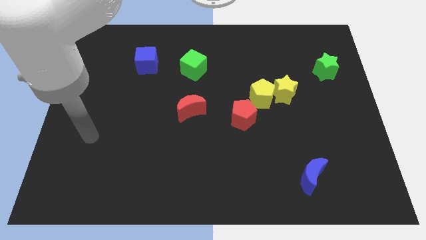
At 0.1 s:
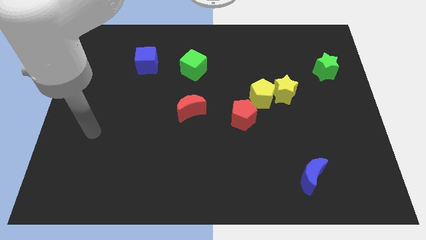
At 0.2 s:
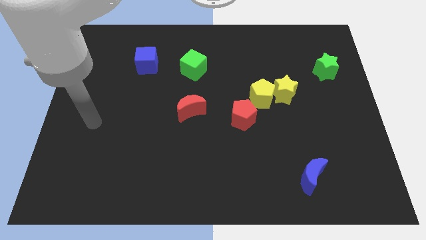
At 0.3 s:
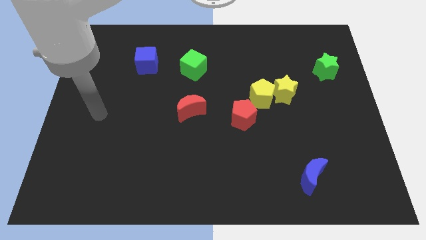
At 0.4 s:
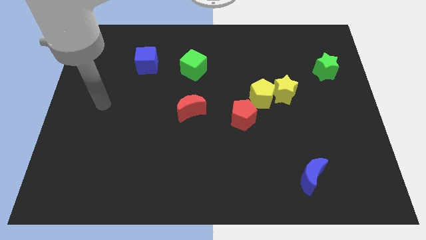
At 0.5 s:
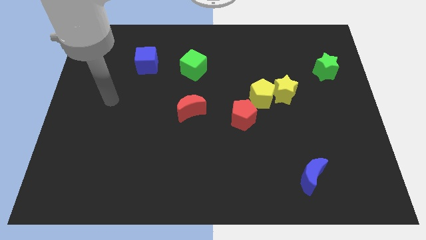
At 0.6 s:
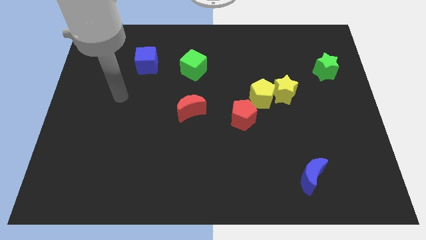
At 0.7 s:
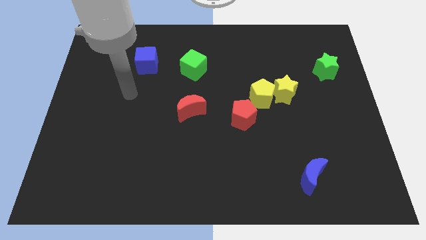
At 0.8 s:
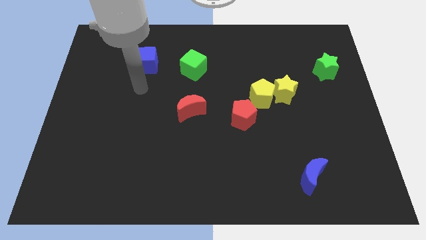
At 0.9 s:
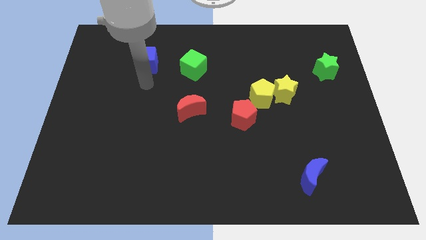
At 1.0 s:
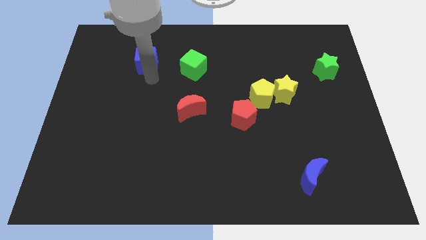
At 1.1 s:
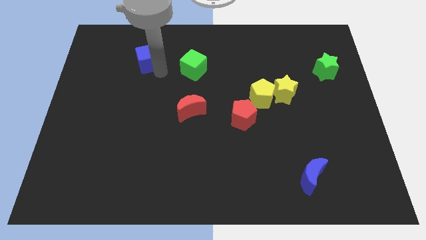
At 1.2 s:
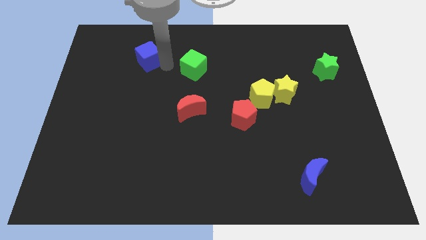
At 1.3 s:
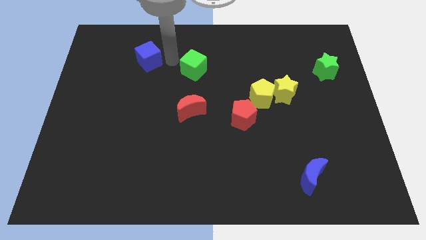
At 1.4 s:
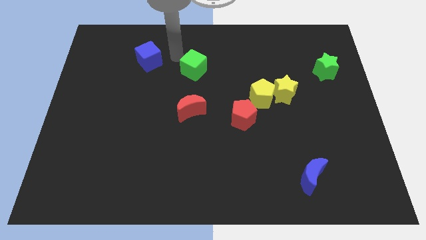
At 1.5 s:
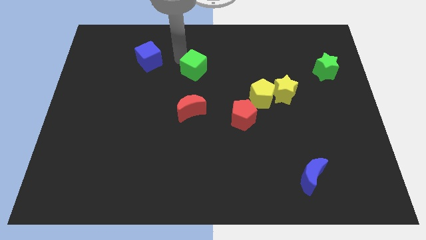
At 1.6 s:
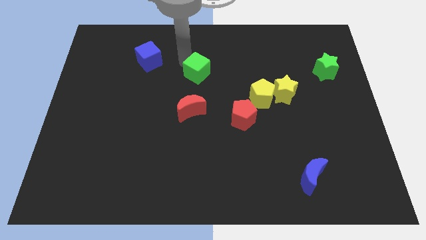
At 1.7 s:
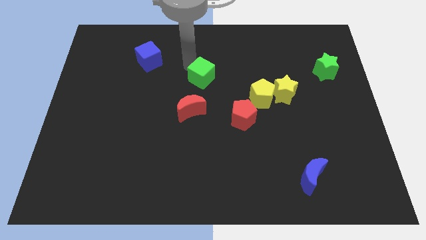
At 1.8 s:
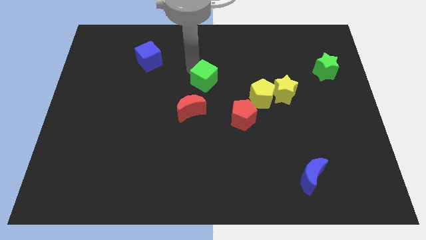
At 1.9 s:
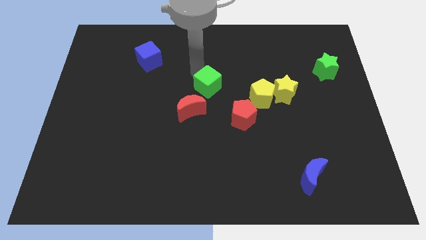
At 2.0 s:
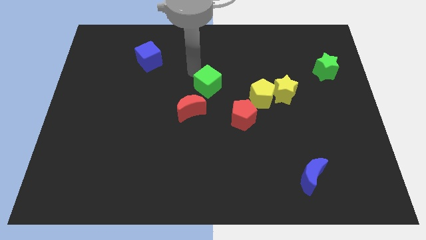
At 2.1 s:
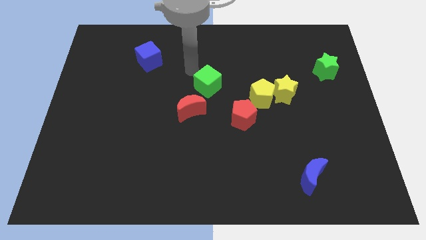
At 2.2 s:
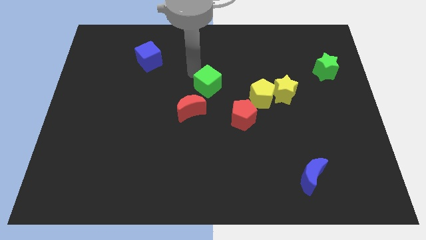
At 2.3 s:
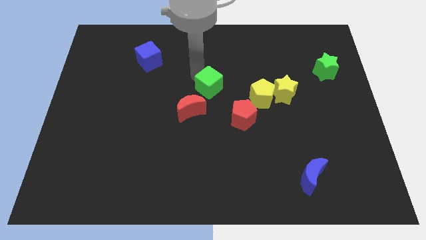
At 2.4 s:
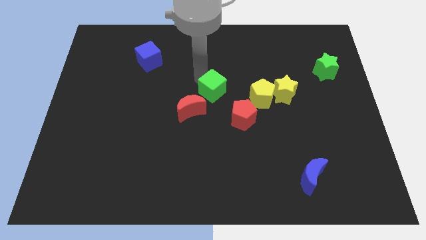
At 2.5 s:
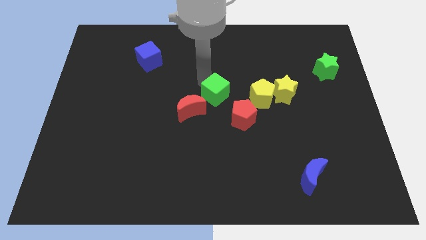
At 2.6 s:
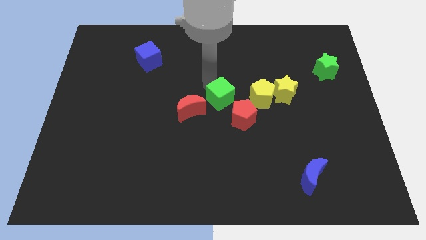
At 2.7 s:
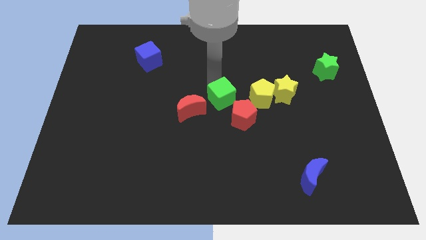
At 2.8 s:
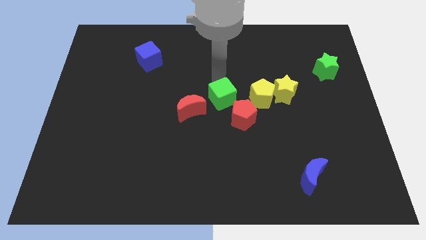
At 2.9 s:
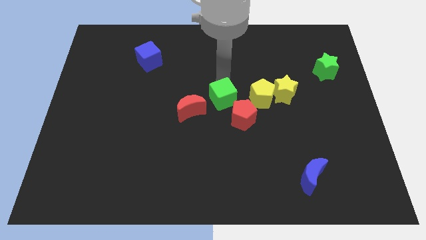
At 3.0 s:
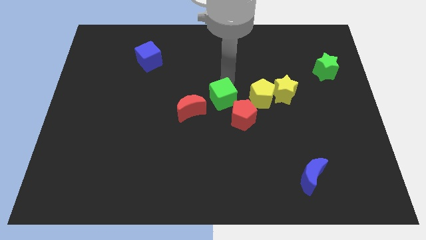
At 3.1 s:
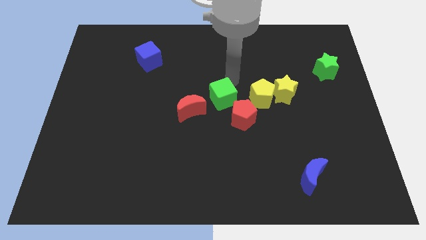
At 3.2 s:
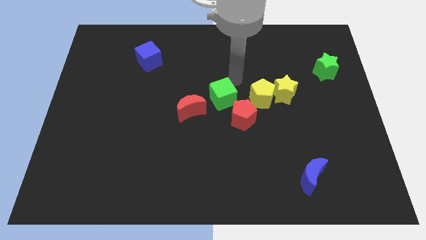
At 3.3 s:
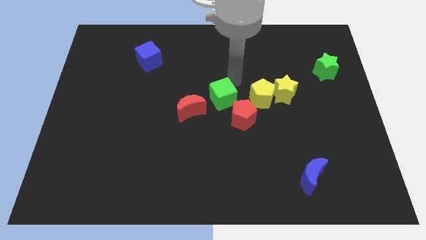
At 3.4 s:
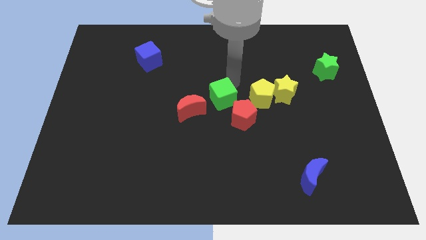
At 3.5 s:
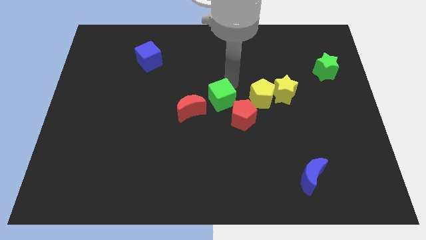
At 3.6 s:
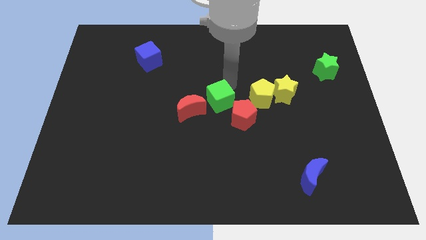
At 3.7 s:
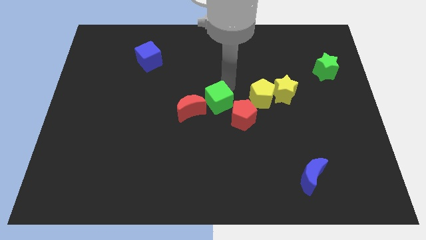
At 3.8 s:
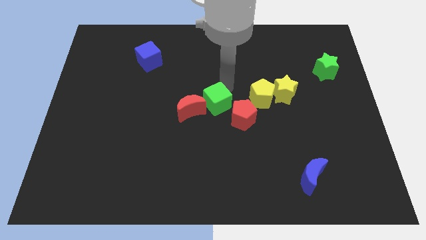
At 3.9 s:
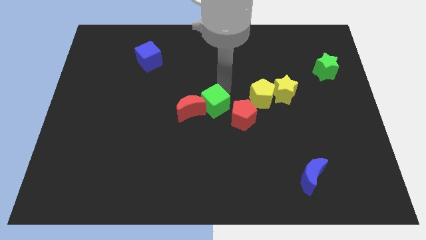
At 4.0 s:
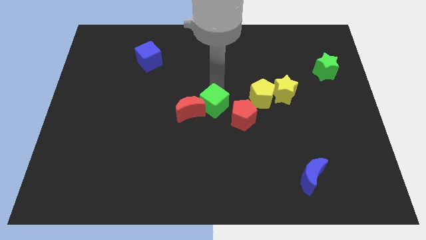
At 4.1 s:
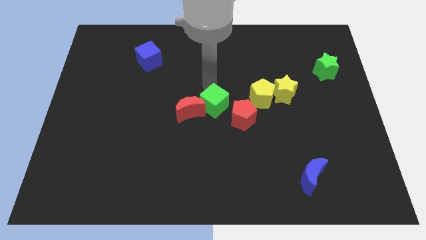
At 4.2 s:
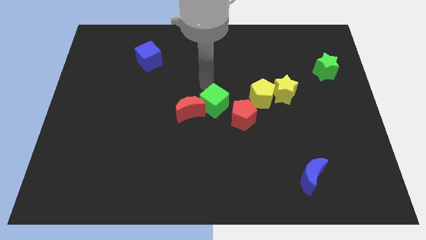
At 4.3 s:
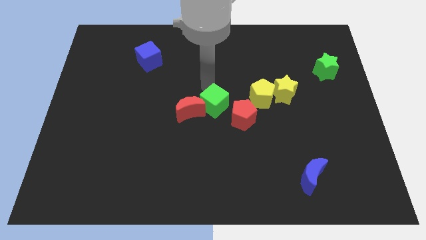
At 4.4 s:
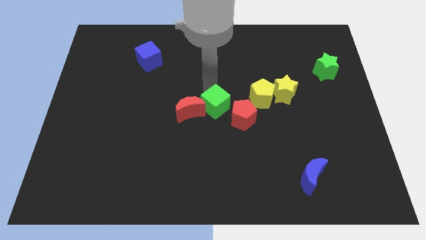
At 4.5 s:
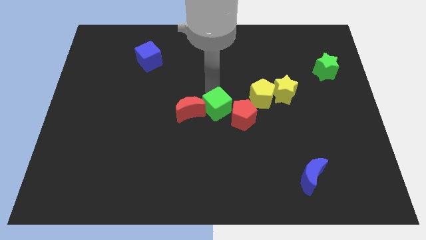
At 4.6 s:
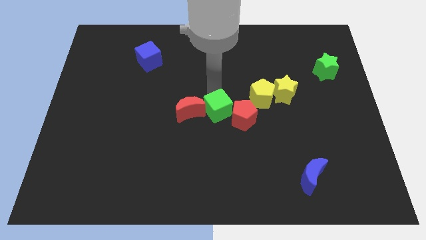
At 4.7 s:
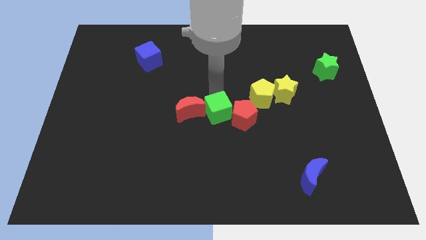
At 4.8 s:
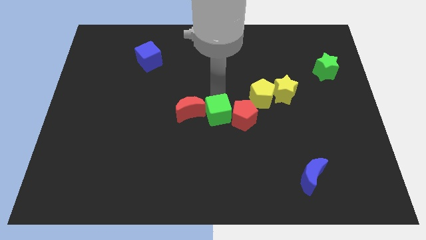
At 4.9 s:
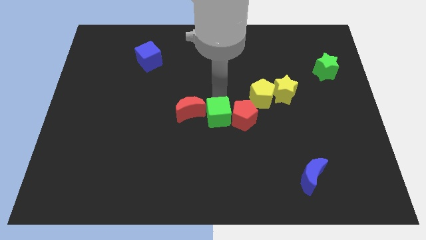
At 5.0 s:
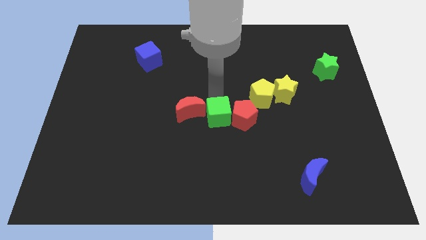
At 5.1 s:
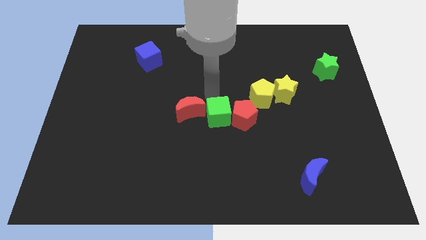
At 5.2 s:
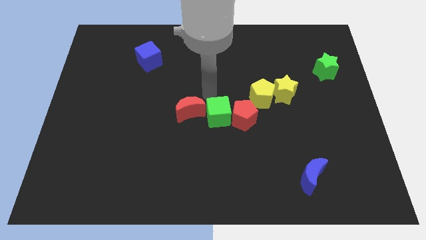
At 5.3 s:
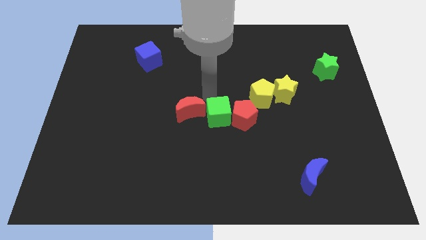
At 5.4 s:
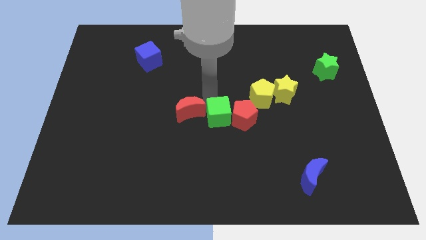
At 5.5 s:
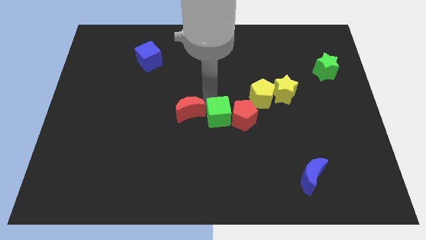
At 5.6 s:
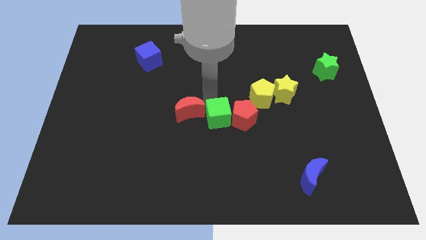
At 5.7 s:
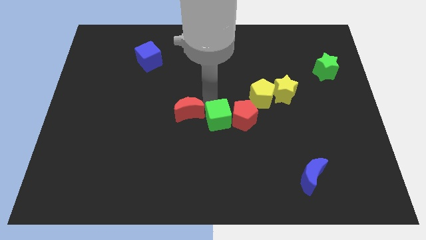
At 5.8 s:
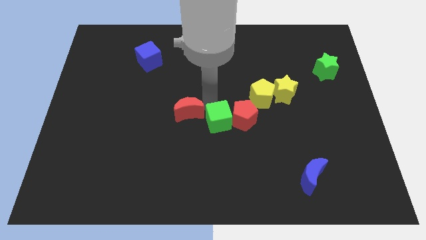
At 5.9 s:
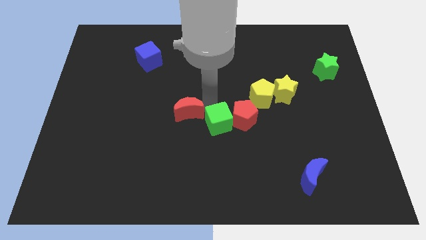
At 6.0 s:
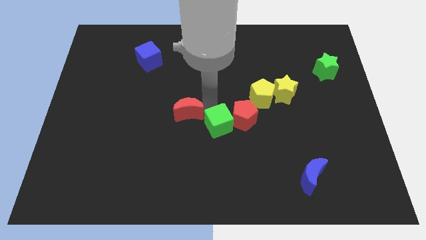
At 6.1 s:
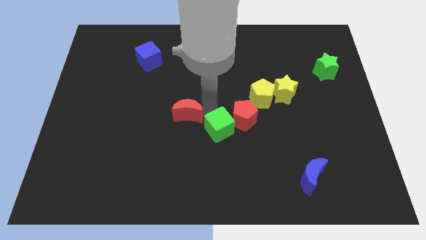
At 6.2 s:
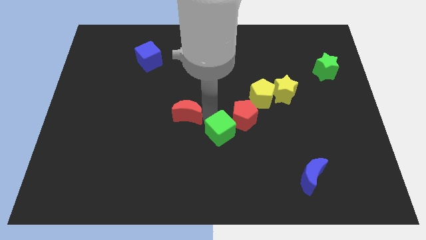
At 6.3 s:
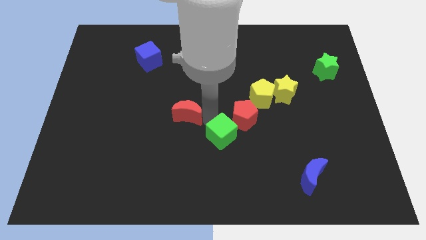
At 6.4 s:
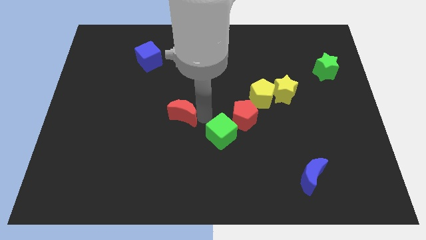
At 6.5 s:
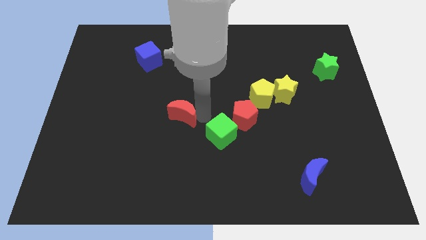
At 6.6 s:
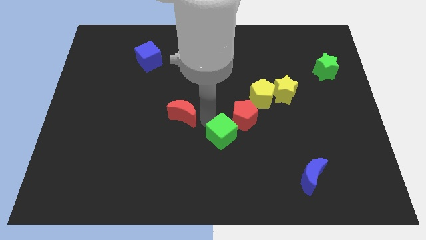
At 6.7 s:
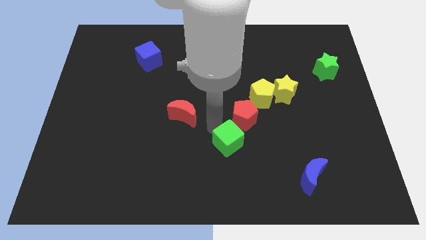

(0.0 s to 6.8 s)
move the green cube to the bottom side of the red pentagon

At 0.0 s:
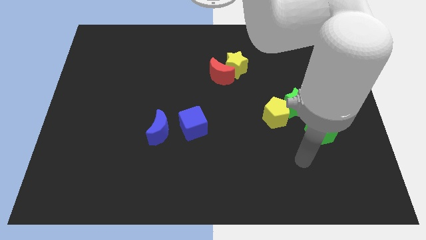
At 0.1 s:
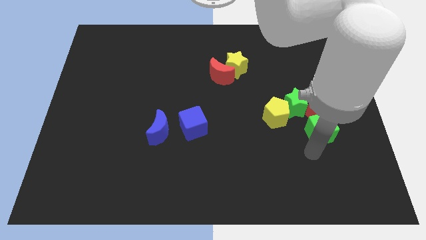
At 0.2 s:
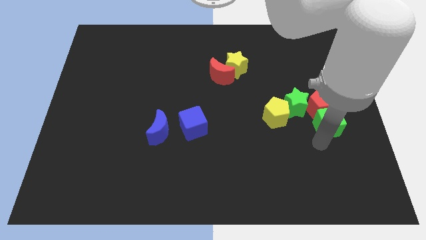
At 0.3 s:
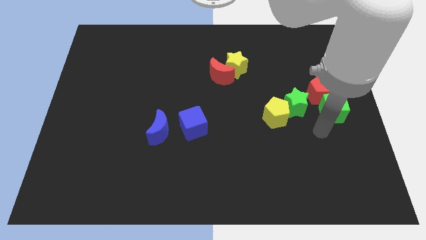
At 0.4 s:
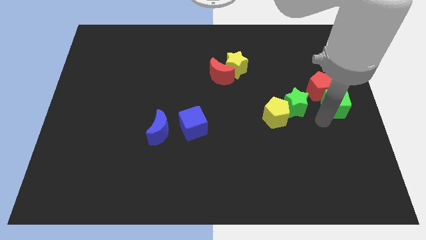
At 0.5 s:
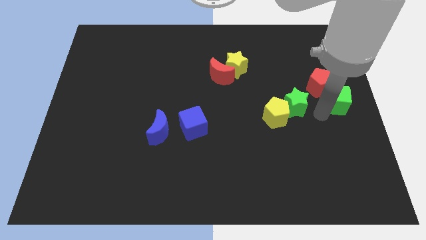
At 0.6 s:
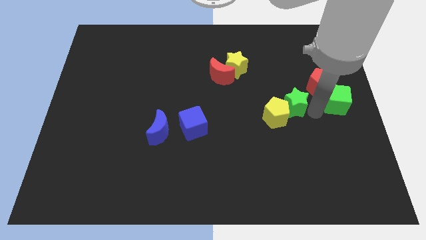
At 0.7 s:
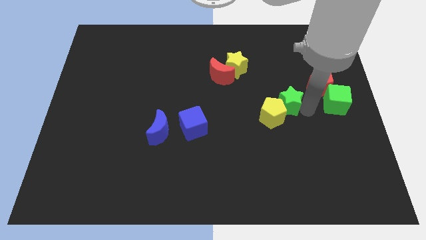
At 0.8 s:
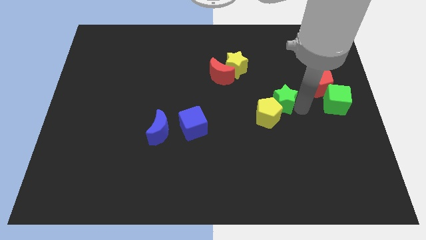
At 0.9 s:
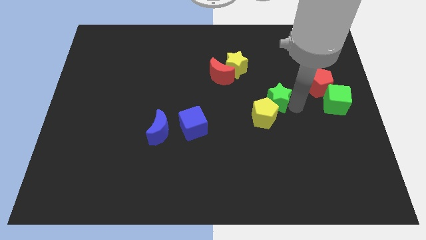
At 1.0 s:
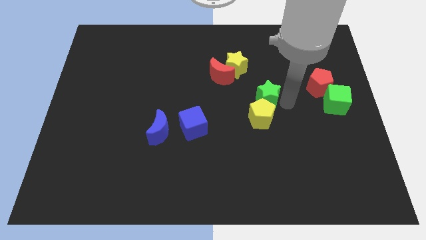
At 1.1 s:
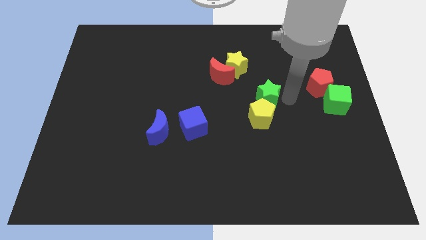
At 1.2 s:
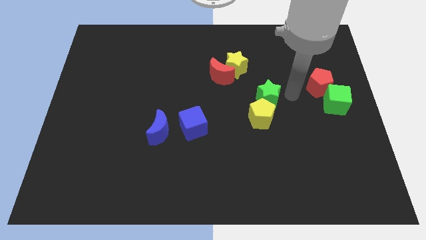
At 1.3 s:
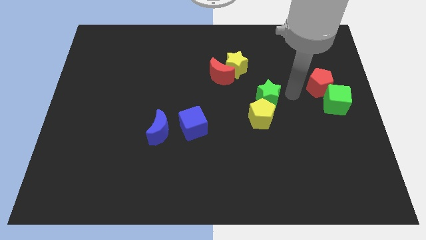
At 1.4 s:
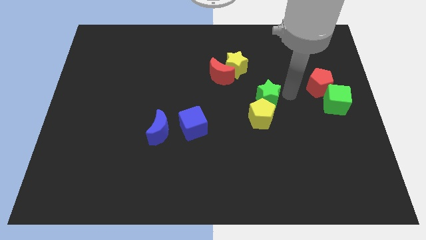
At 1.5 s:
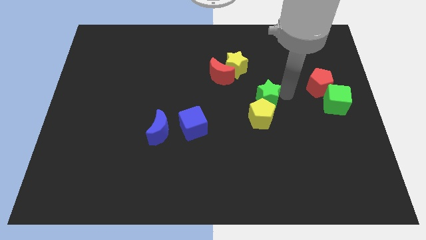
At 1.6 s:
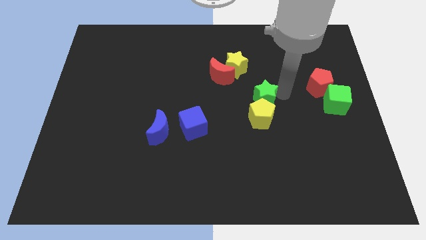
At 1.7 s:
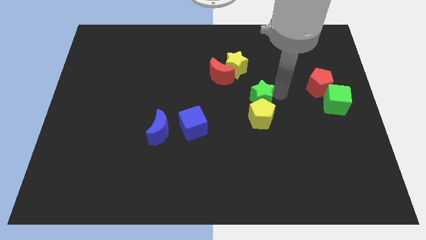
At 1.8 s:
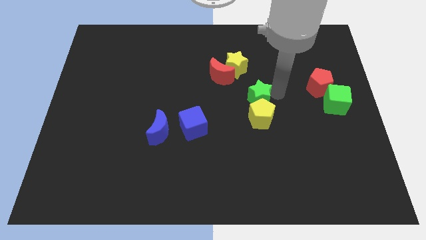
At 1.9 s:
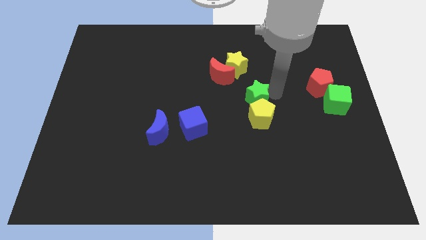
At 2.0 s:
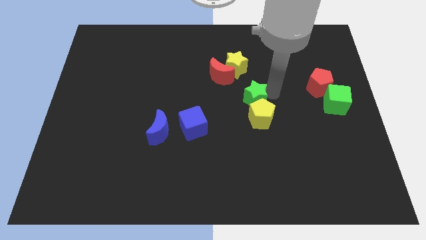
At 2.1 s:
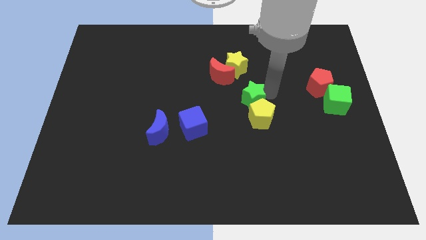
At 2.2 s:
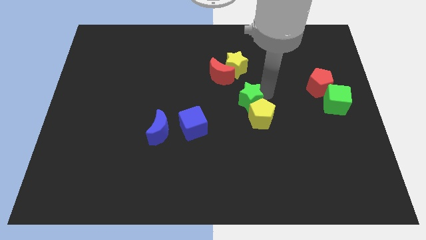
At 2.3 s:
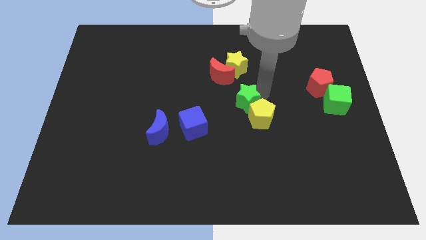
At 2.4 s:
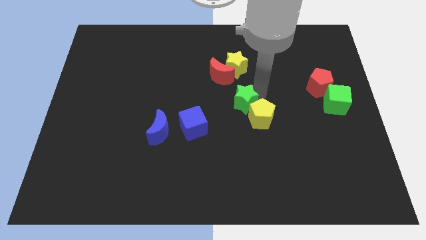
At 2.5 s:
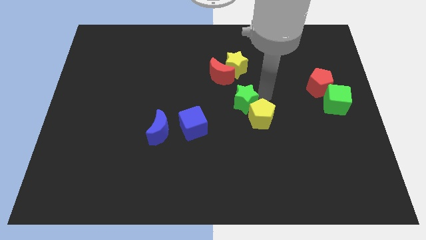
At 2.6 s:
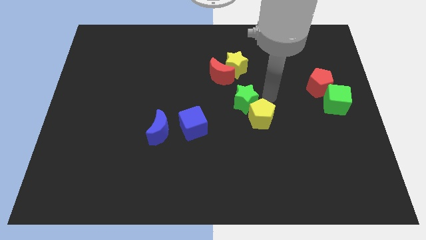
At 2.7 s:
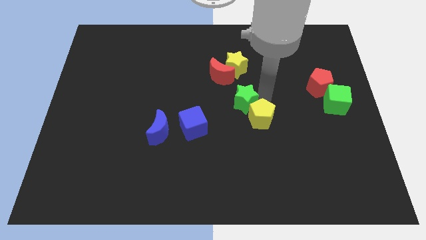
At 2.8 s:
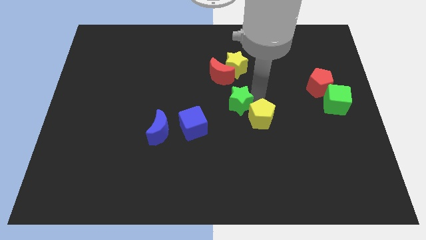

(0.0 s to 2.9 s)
push the green star diagonally up and to the right of the blue cube
